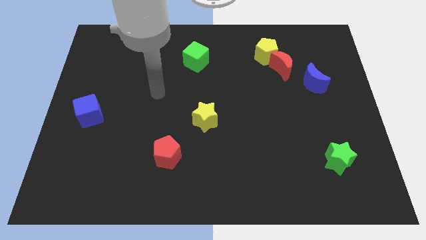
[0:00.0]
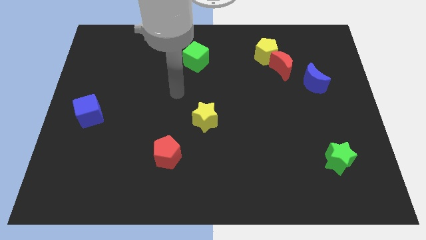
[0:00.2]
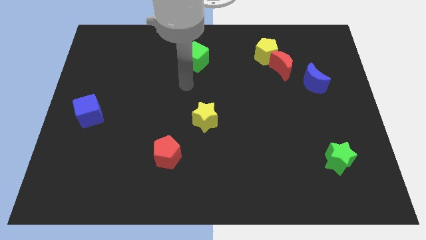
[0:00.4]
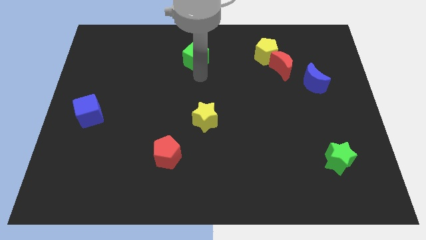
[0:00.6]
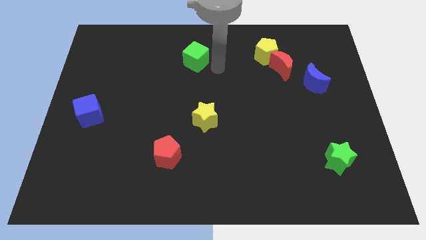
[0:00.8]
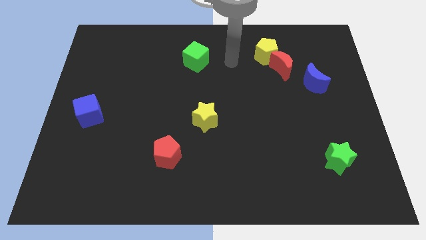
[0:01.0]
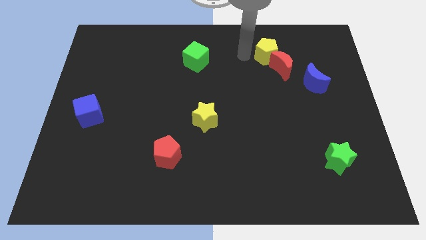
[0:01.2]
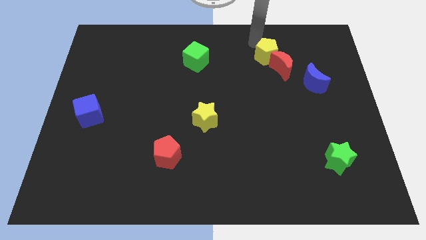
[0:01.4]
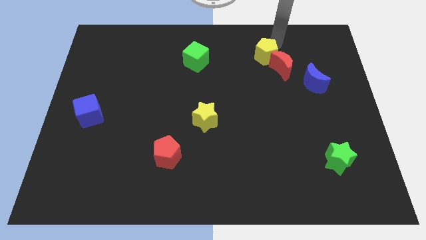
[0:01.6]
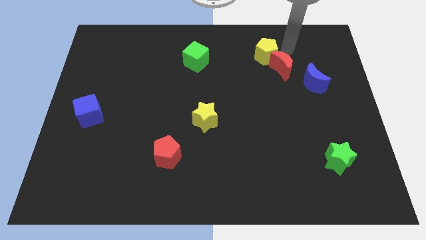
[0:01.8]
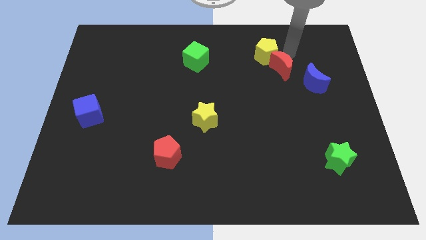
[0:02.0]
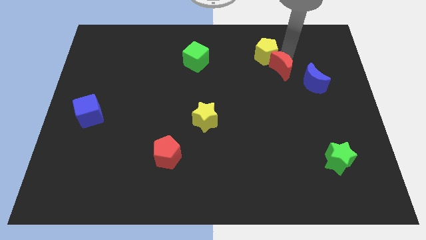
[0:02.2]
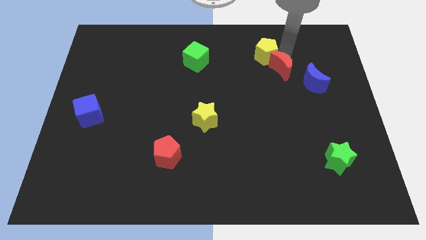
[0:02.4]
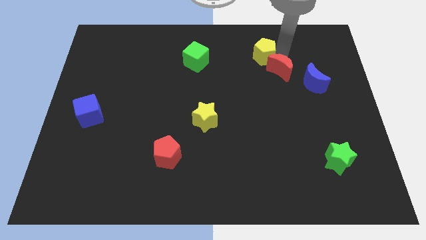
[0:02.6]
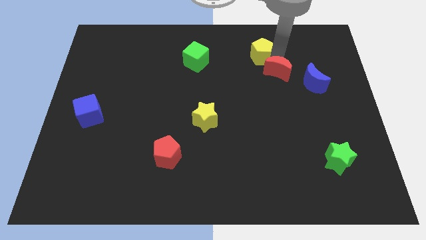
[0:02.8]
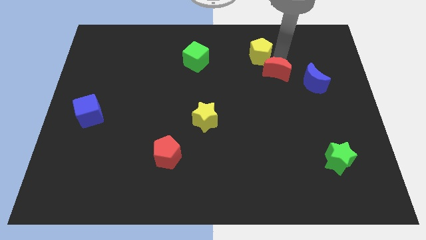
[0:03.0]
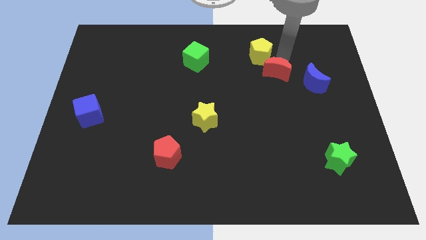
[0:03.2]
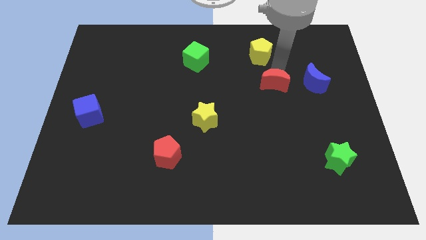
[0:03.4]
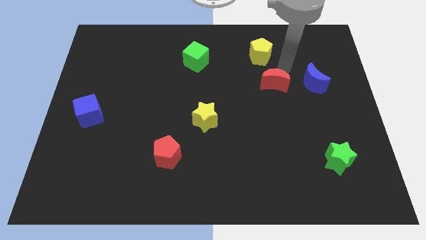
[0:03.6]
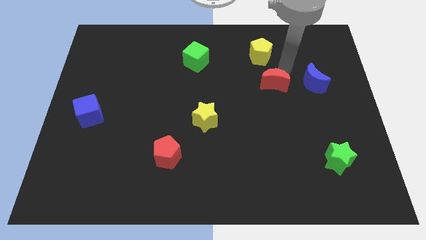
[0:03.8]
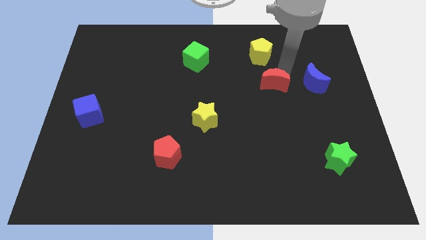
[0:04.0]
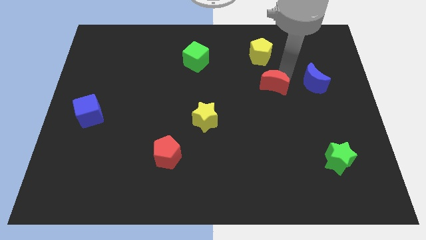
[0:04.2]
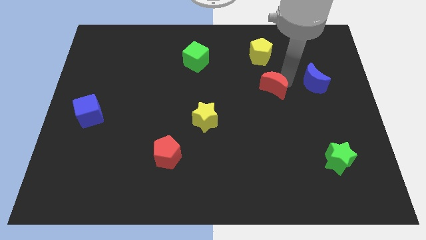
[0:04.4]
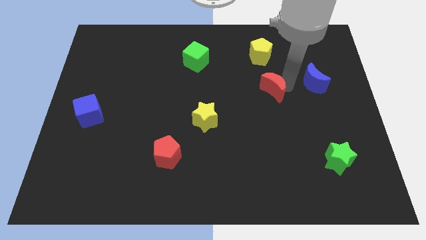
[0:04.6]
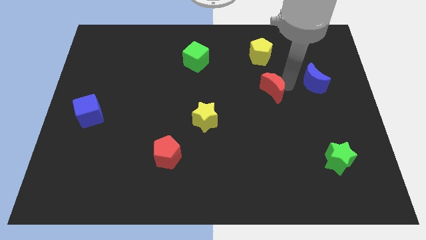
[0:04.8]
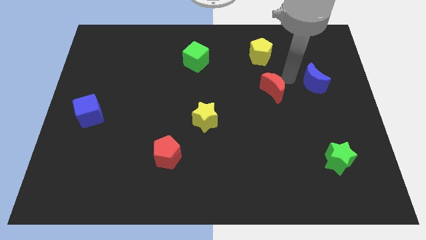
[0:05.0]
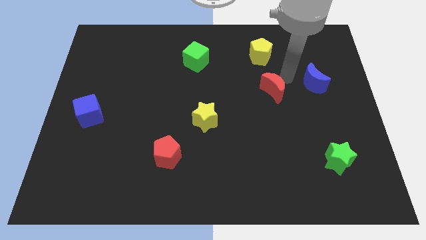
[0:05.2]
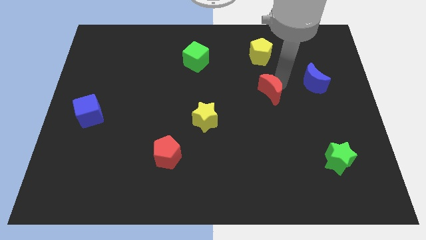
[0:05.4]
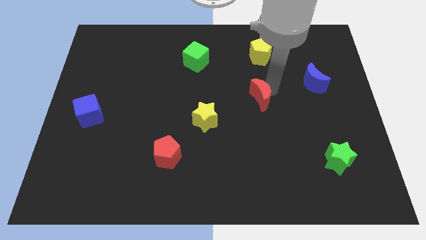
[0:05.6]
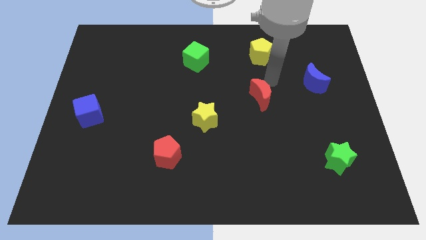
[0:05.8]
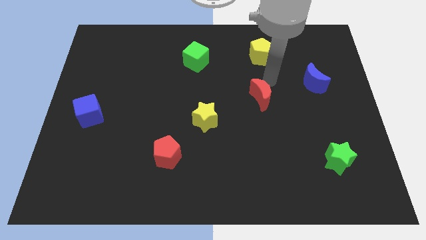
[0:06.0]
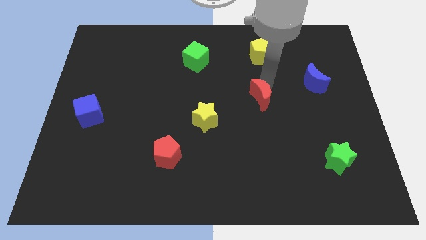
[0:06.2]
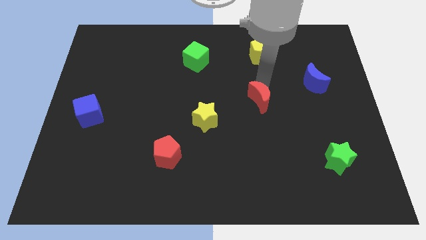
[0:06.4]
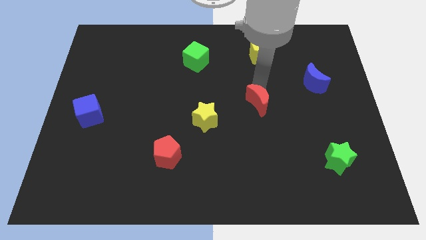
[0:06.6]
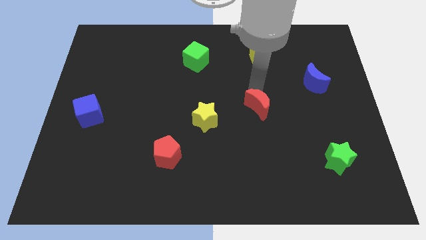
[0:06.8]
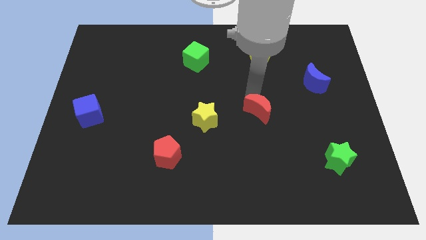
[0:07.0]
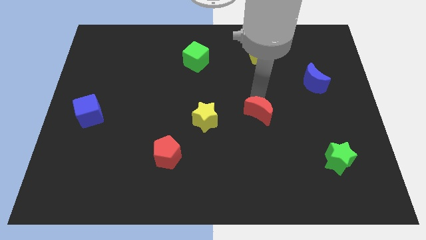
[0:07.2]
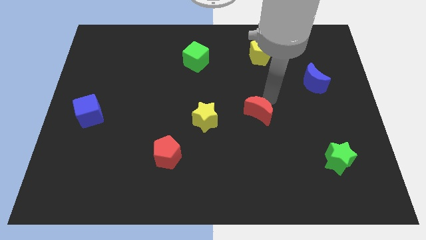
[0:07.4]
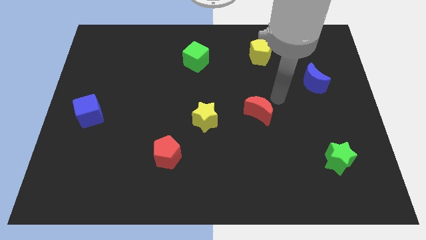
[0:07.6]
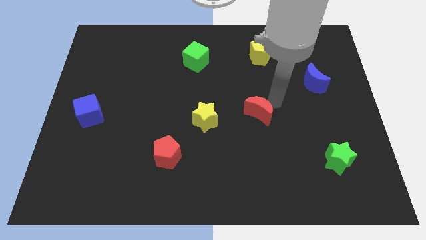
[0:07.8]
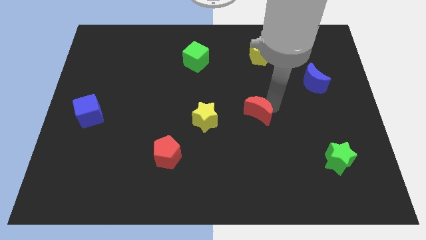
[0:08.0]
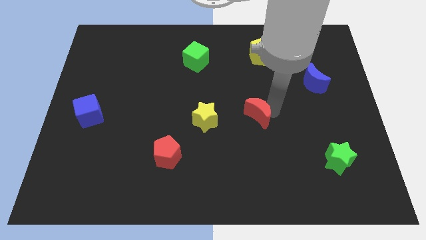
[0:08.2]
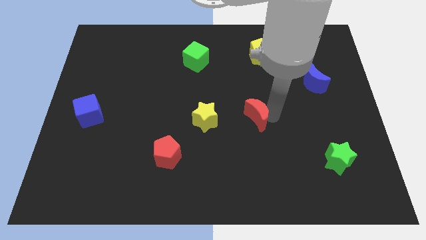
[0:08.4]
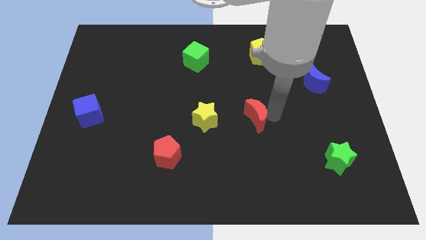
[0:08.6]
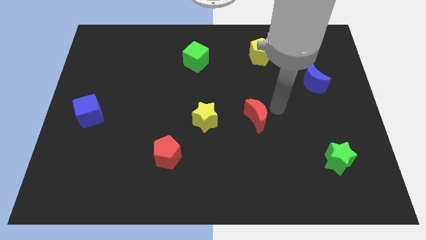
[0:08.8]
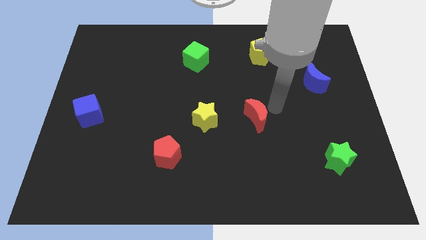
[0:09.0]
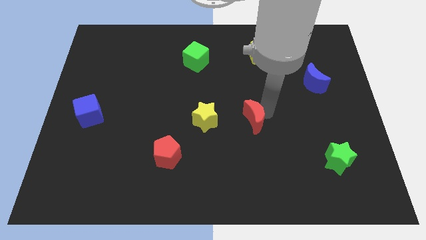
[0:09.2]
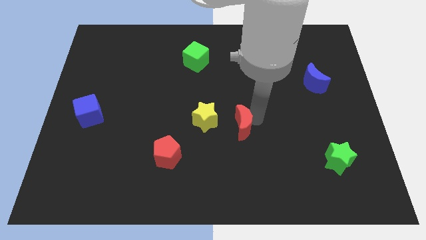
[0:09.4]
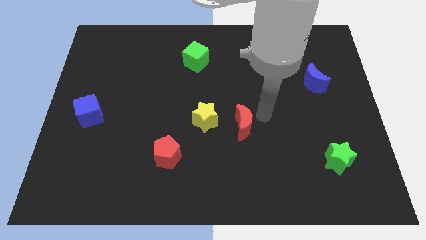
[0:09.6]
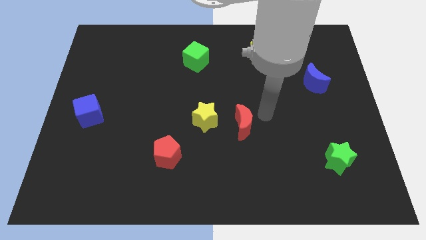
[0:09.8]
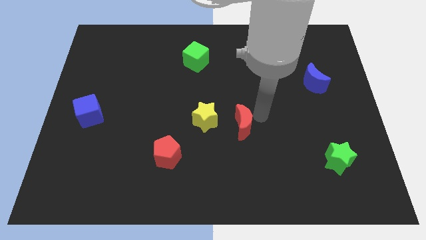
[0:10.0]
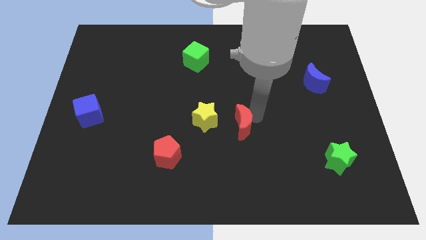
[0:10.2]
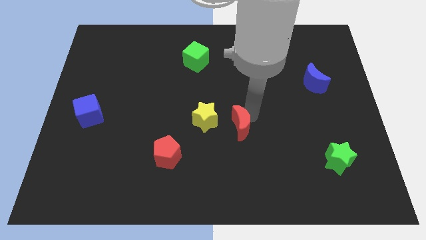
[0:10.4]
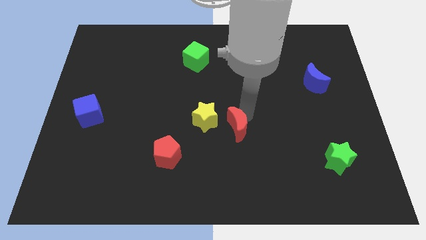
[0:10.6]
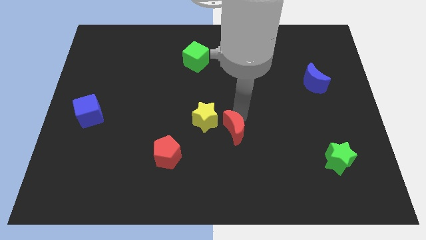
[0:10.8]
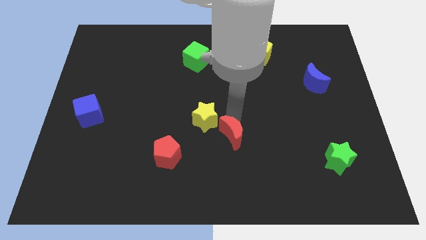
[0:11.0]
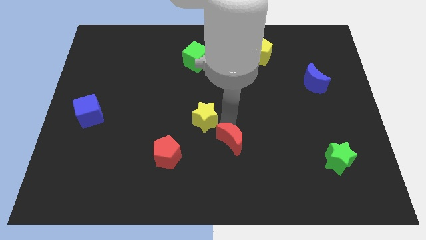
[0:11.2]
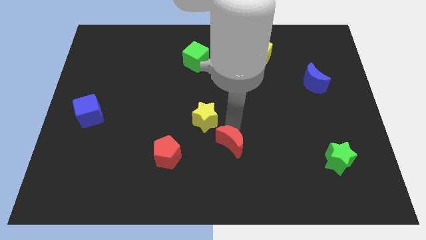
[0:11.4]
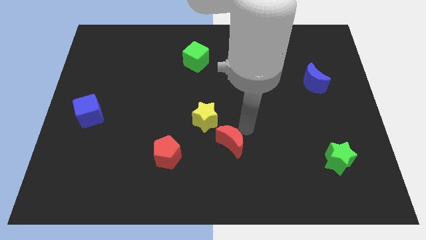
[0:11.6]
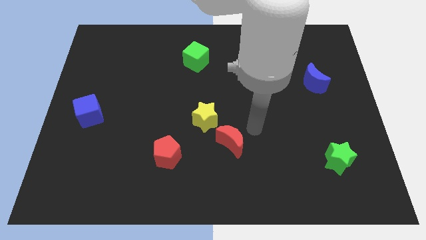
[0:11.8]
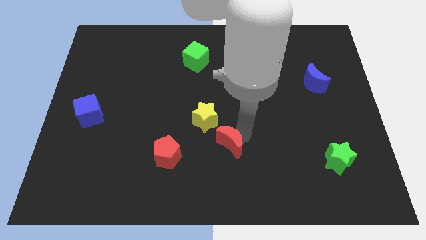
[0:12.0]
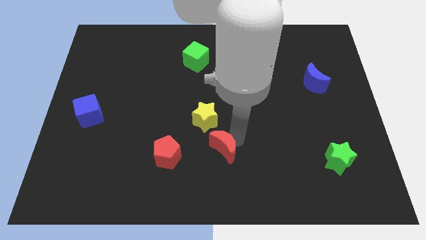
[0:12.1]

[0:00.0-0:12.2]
put the red moon to the bottom side of the yellow star

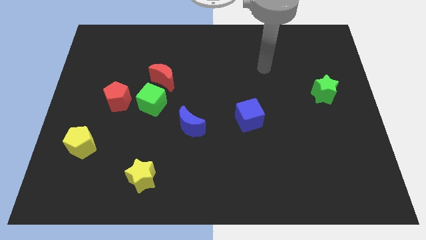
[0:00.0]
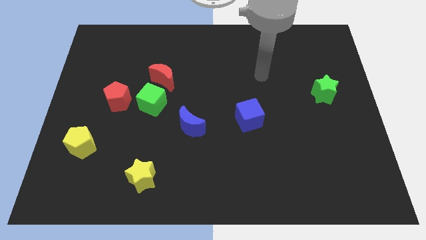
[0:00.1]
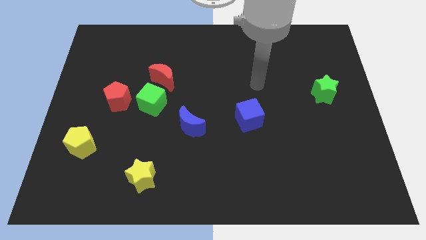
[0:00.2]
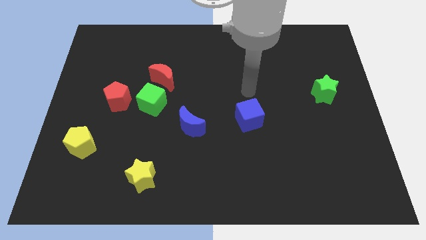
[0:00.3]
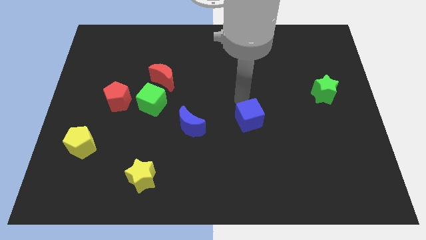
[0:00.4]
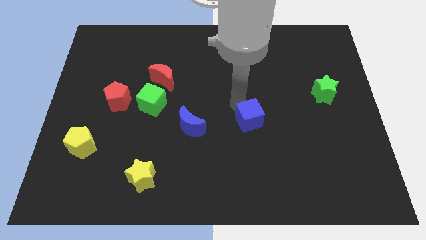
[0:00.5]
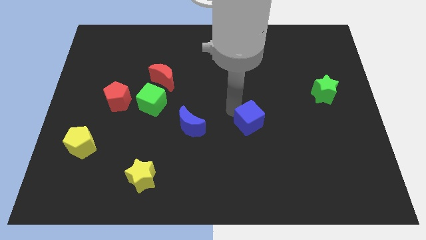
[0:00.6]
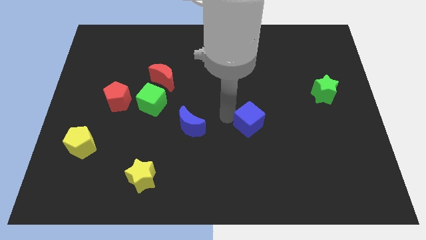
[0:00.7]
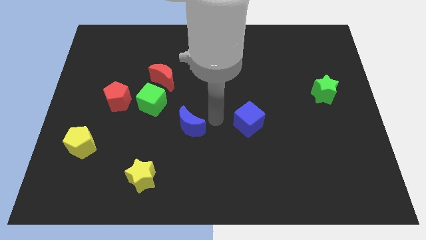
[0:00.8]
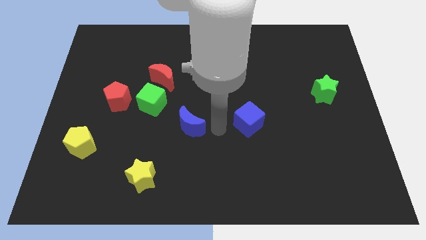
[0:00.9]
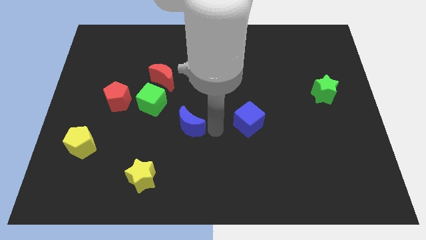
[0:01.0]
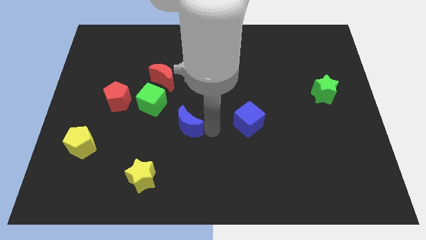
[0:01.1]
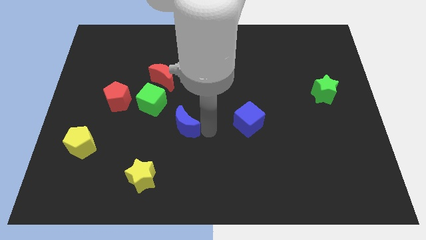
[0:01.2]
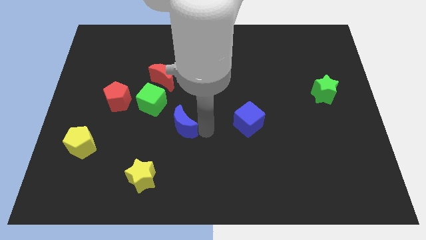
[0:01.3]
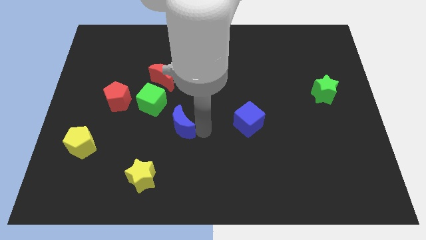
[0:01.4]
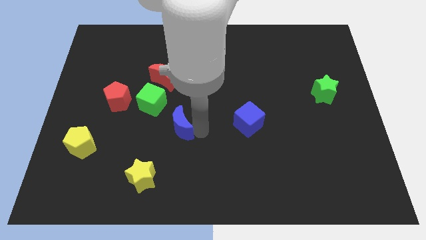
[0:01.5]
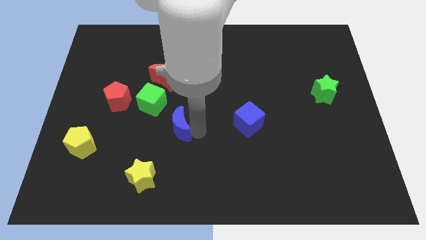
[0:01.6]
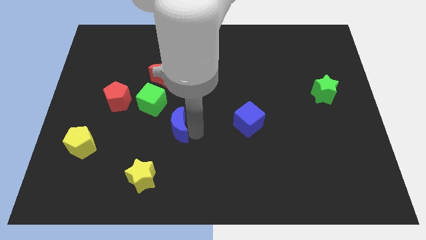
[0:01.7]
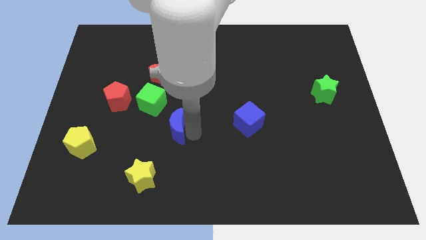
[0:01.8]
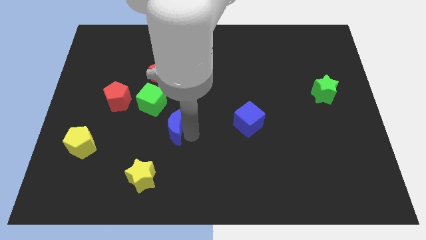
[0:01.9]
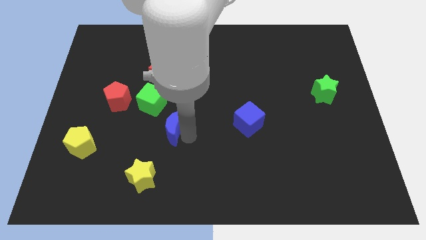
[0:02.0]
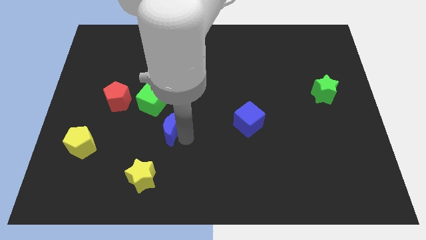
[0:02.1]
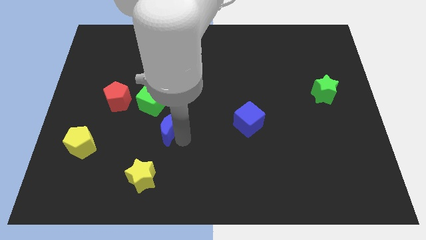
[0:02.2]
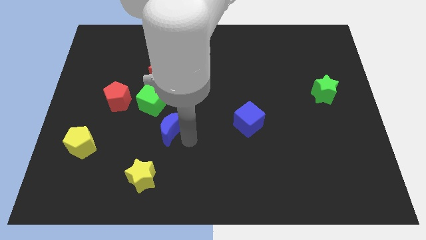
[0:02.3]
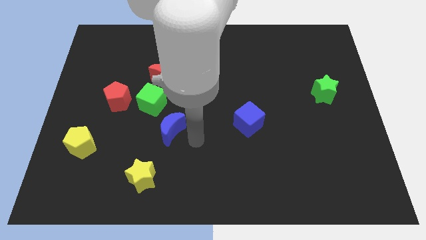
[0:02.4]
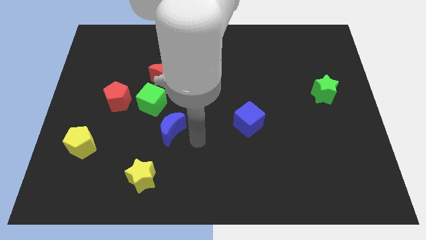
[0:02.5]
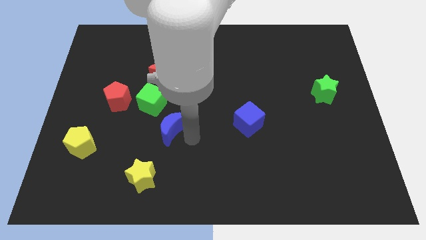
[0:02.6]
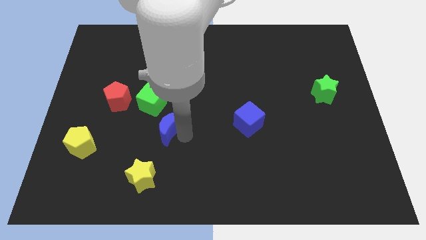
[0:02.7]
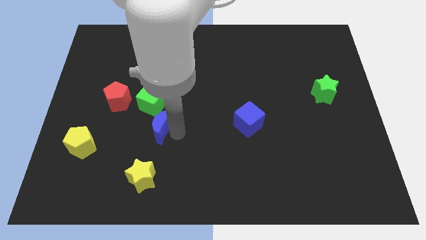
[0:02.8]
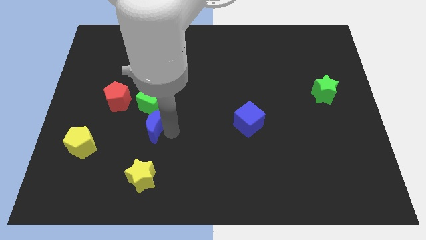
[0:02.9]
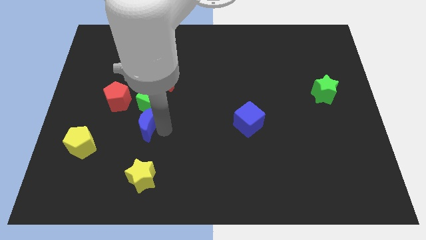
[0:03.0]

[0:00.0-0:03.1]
move the blue moon to the bottom left of the green cube
